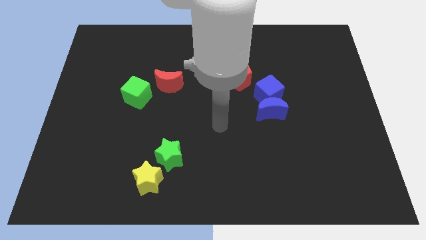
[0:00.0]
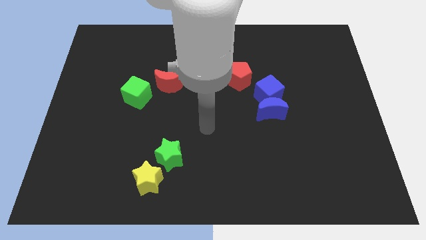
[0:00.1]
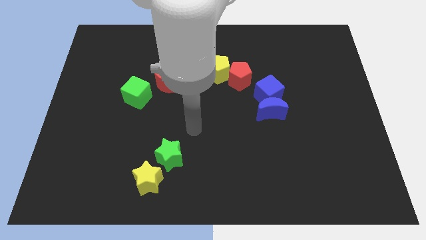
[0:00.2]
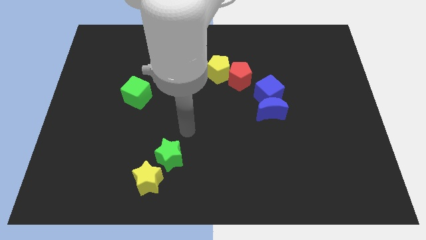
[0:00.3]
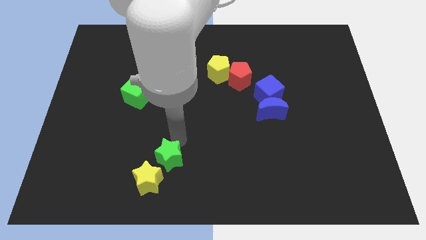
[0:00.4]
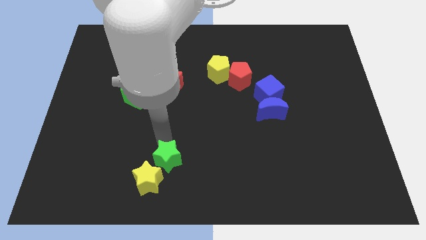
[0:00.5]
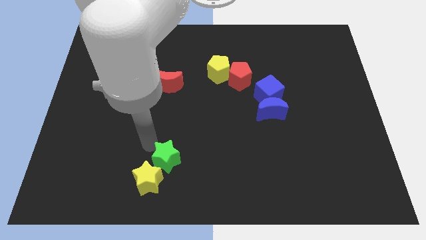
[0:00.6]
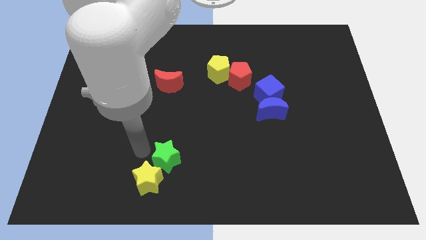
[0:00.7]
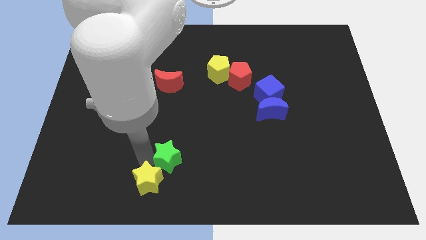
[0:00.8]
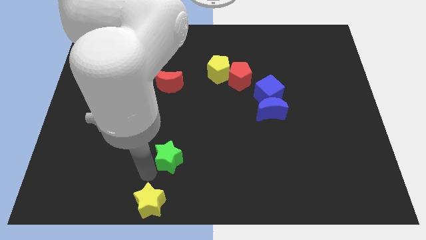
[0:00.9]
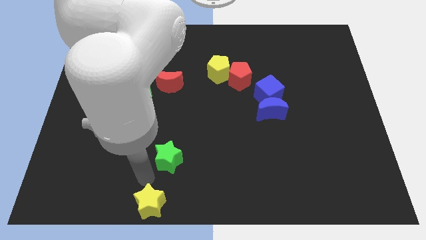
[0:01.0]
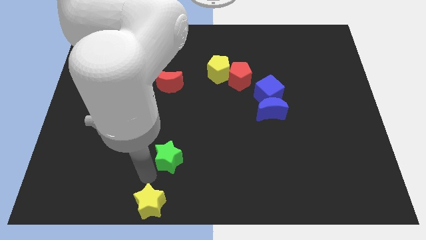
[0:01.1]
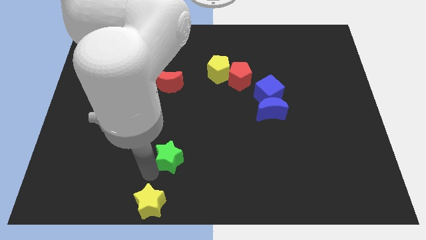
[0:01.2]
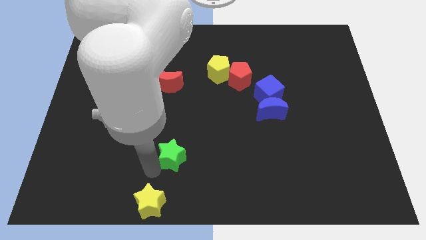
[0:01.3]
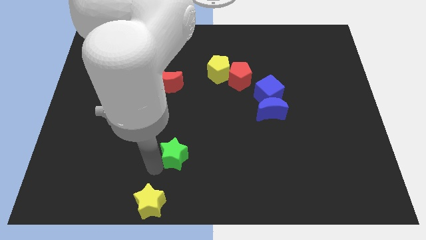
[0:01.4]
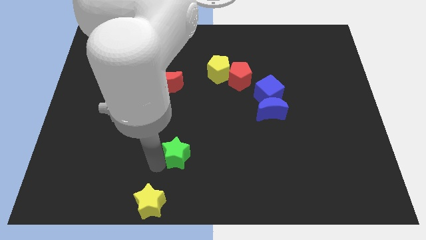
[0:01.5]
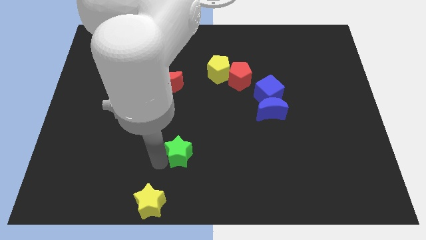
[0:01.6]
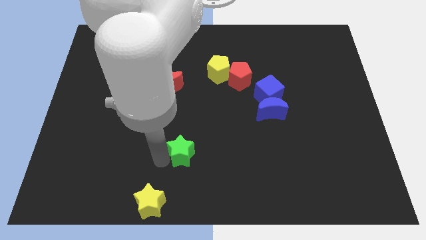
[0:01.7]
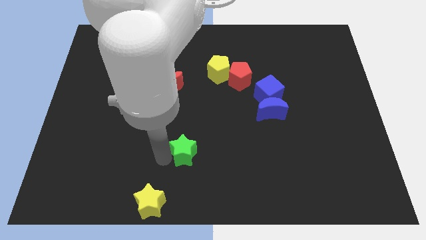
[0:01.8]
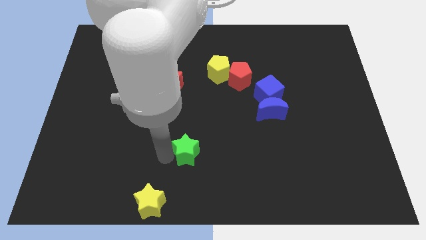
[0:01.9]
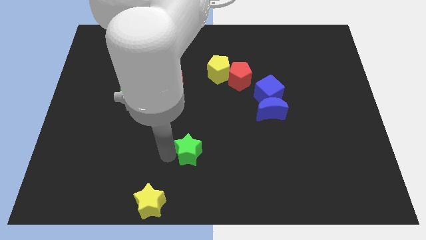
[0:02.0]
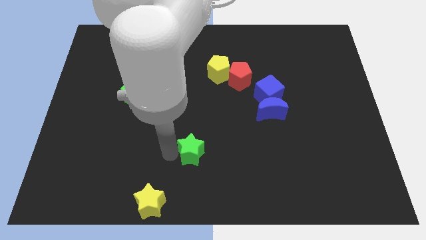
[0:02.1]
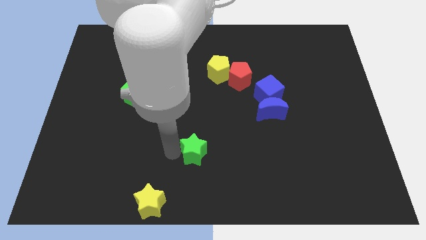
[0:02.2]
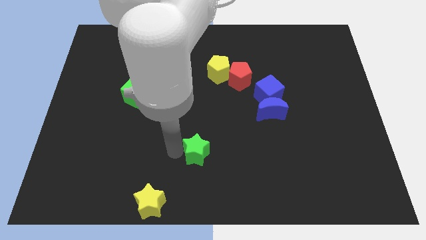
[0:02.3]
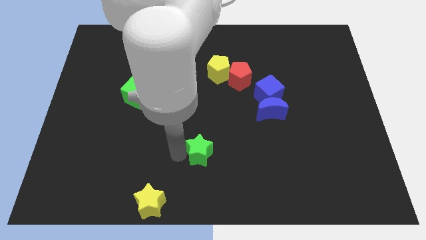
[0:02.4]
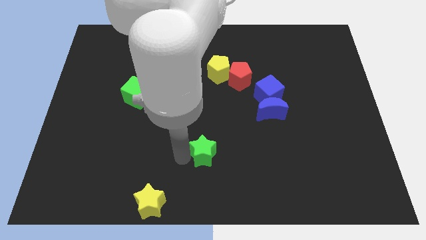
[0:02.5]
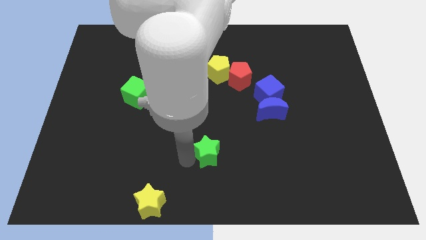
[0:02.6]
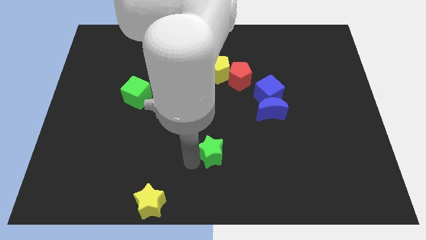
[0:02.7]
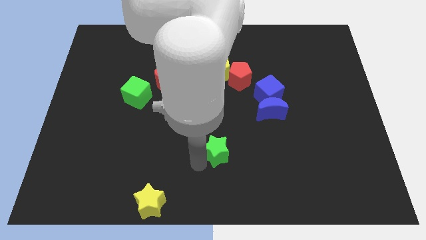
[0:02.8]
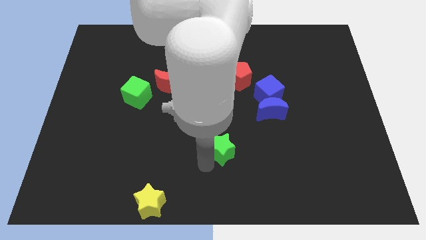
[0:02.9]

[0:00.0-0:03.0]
push the green star up and to the right a bit

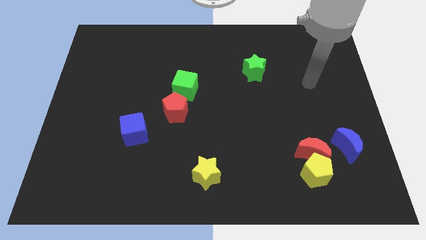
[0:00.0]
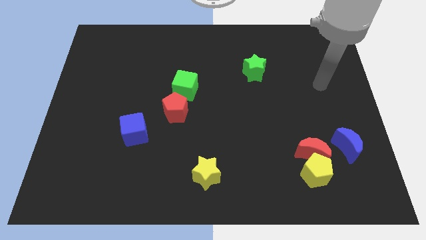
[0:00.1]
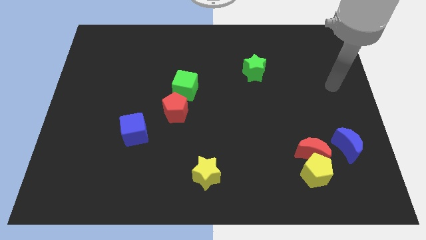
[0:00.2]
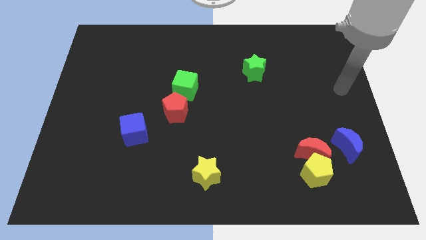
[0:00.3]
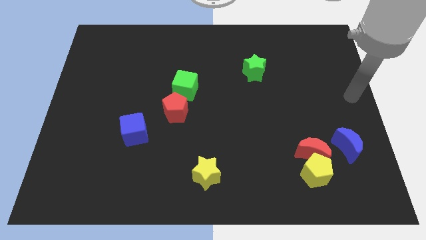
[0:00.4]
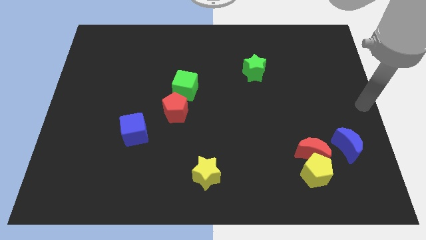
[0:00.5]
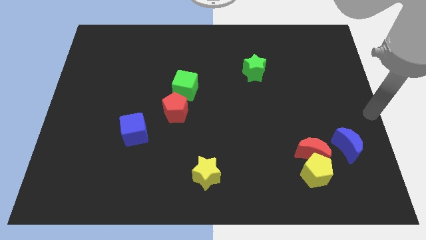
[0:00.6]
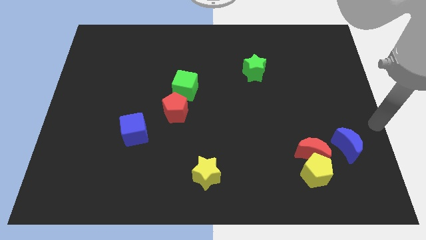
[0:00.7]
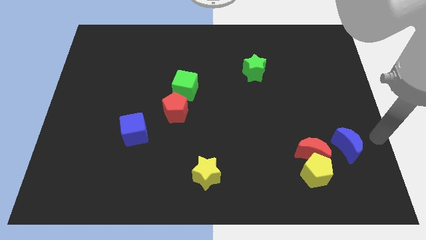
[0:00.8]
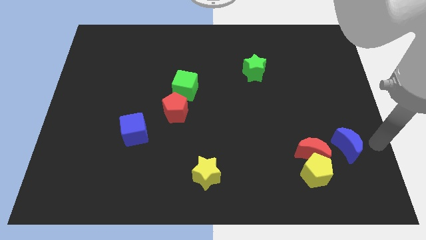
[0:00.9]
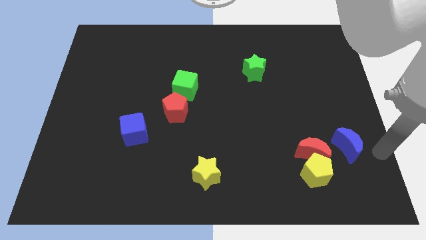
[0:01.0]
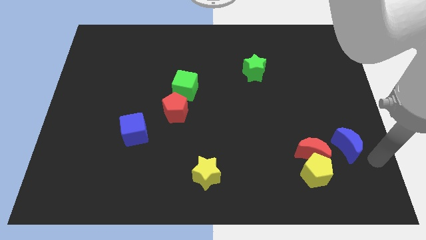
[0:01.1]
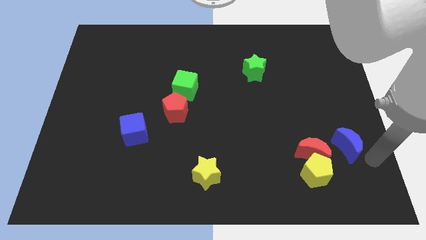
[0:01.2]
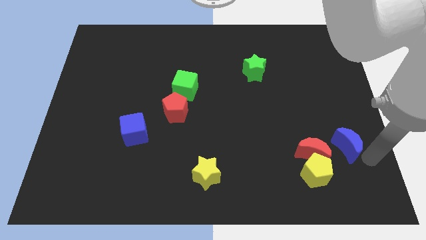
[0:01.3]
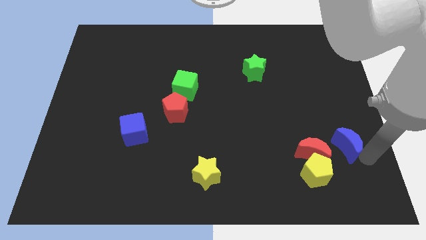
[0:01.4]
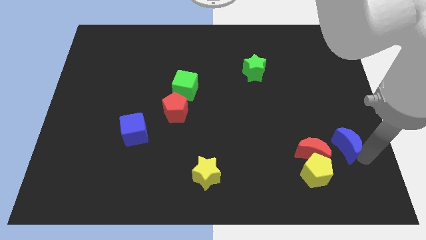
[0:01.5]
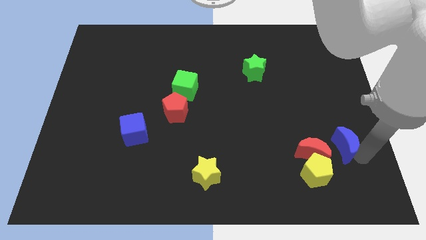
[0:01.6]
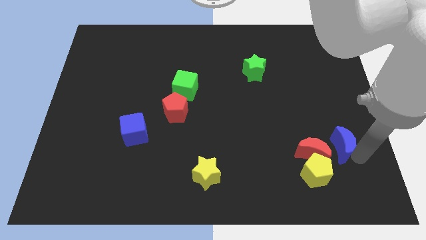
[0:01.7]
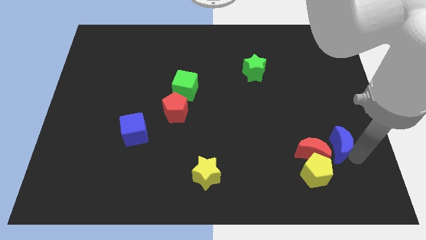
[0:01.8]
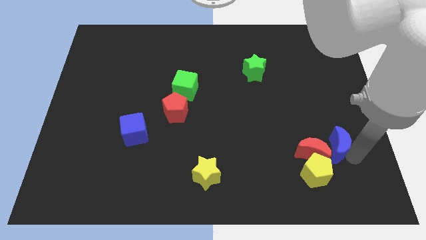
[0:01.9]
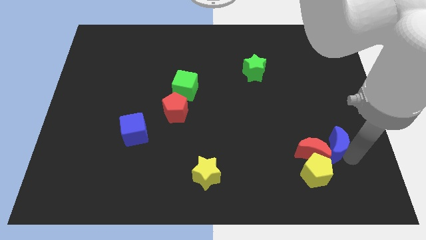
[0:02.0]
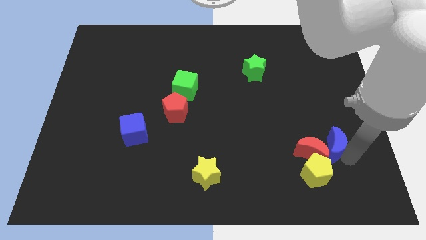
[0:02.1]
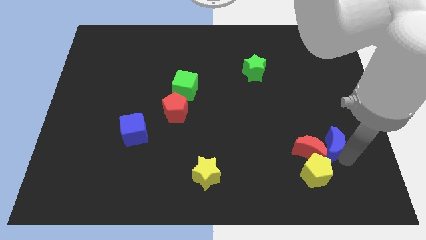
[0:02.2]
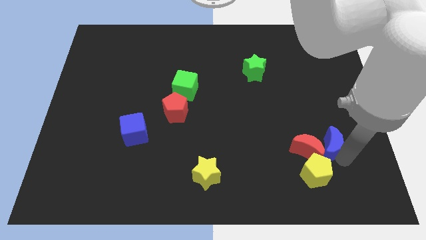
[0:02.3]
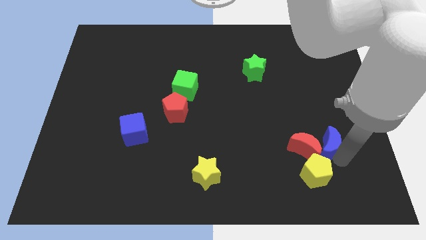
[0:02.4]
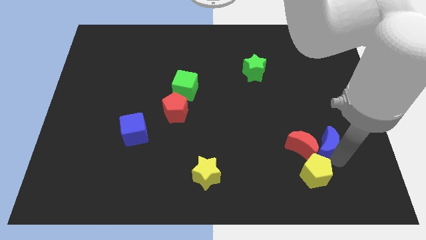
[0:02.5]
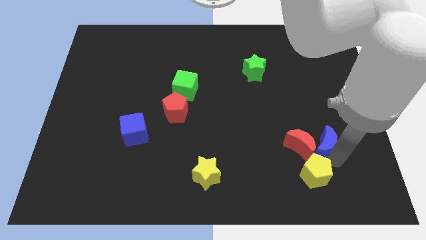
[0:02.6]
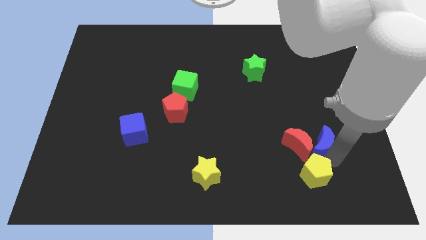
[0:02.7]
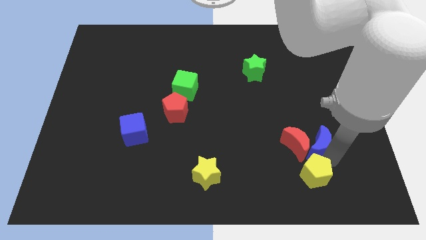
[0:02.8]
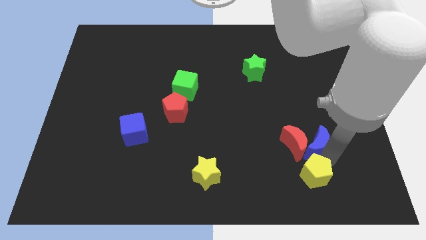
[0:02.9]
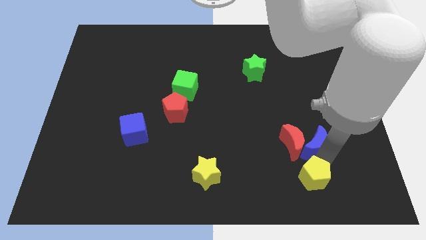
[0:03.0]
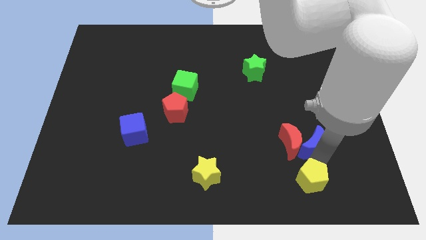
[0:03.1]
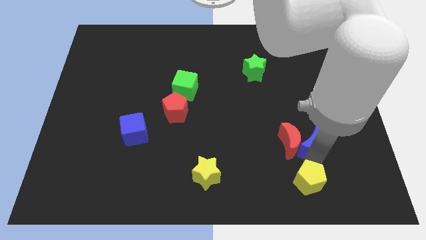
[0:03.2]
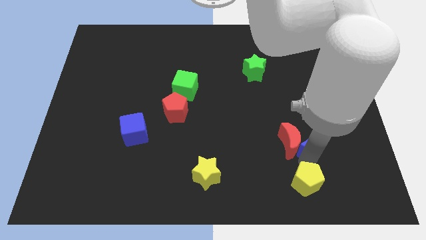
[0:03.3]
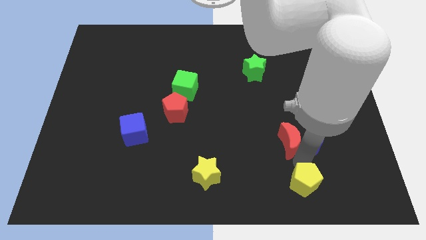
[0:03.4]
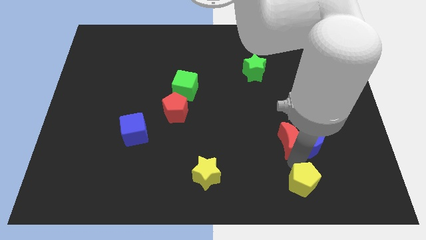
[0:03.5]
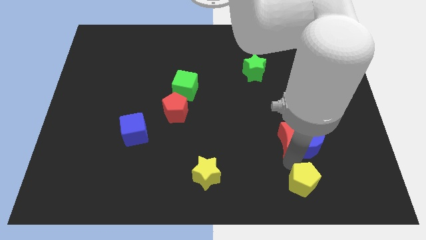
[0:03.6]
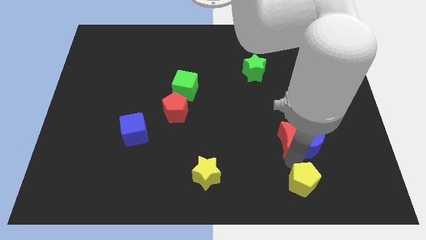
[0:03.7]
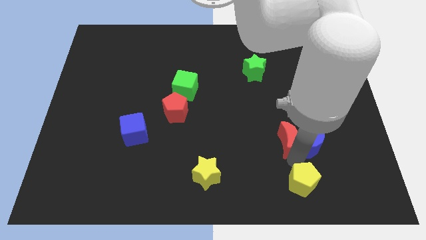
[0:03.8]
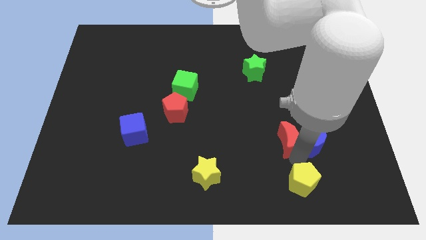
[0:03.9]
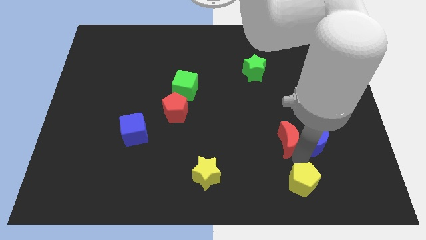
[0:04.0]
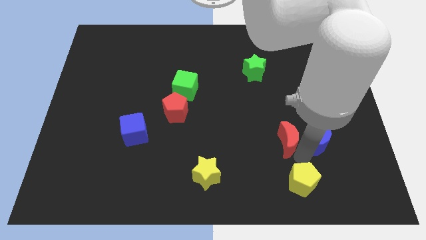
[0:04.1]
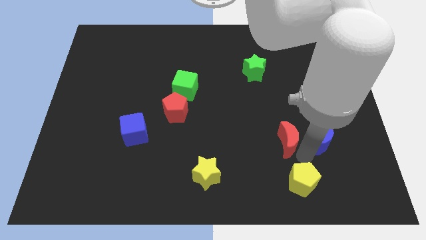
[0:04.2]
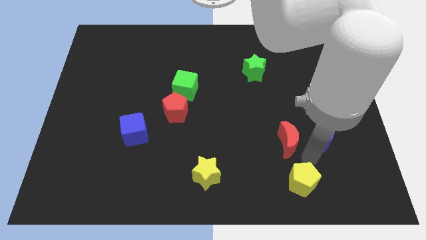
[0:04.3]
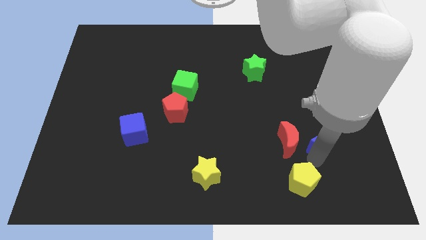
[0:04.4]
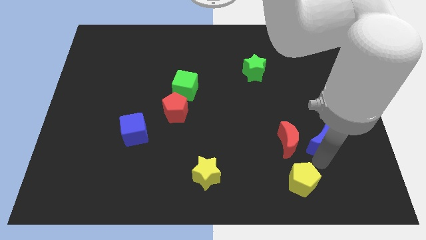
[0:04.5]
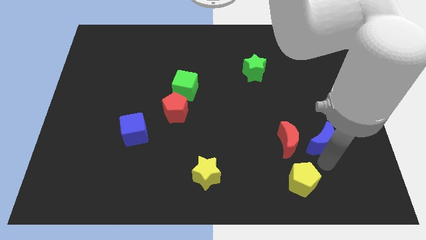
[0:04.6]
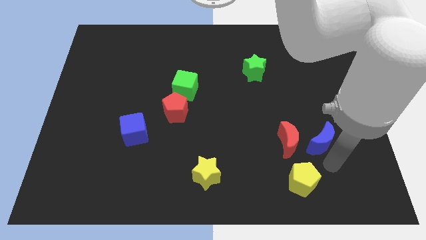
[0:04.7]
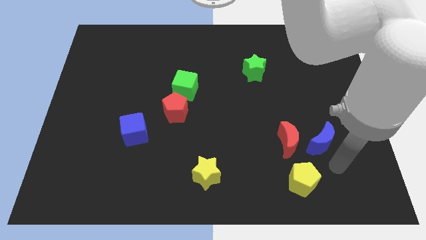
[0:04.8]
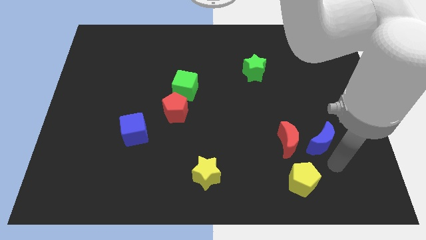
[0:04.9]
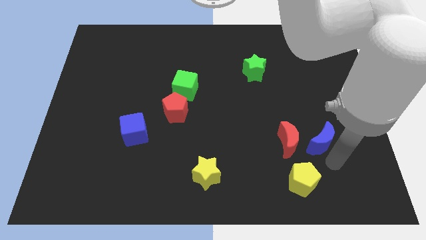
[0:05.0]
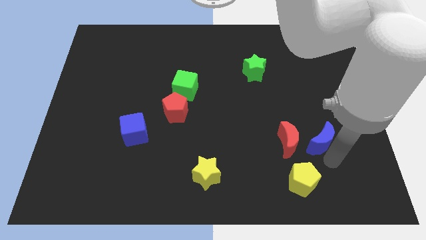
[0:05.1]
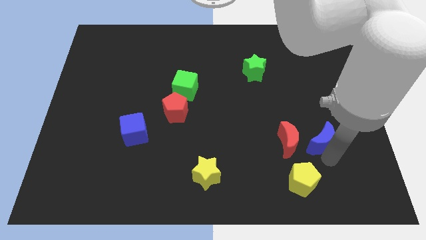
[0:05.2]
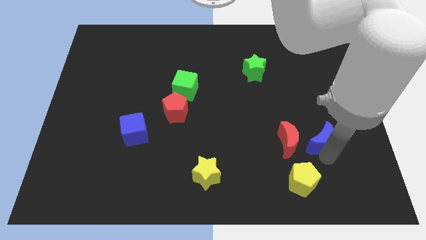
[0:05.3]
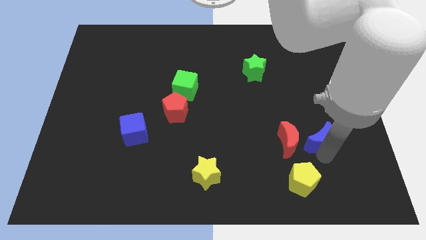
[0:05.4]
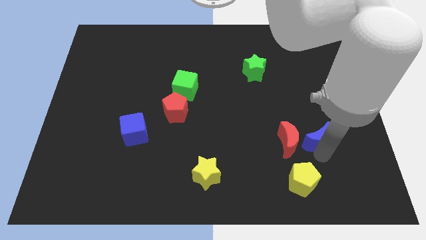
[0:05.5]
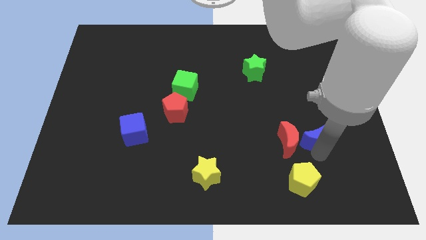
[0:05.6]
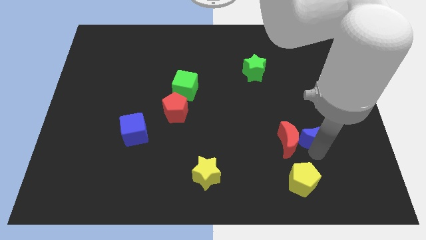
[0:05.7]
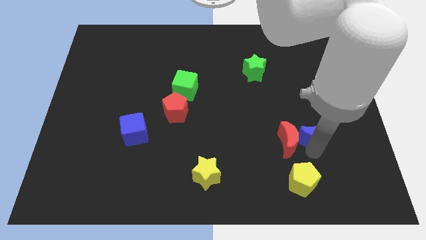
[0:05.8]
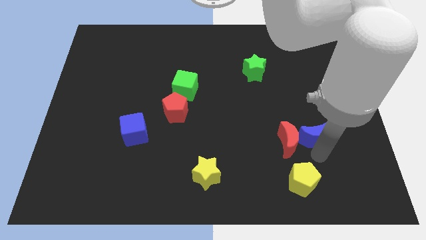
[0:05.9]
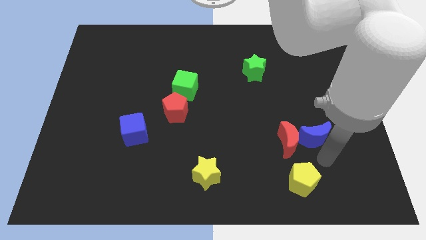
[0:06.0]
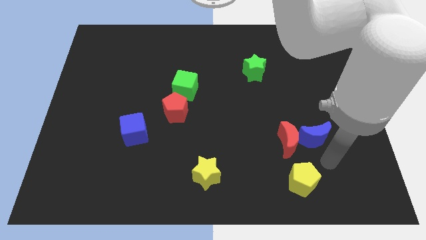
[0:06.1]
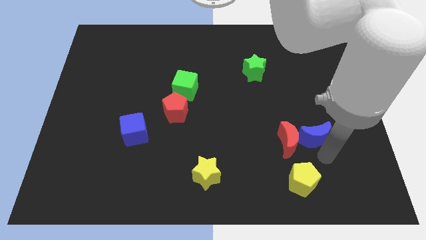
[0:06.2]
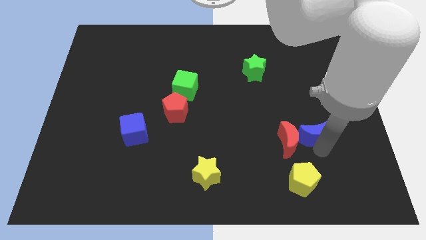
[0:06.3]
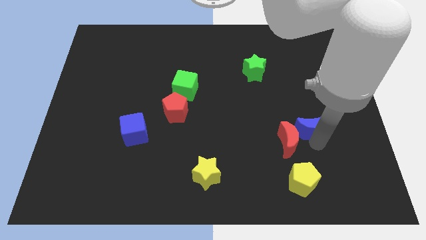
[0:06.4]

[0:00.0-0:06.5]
slightly move the blue moon diagonally upwards and left
